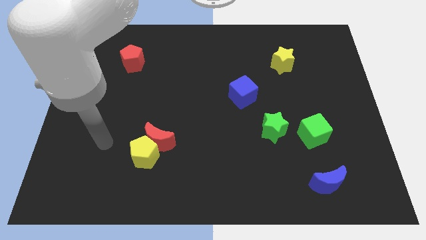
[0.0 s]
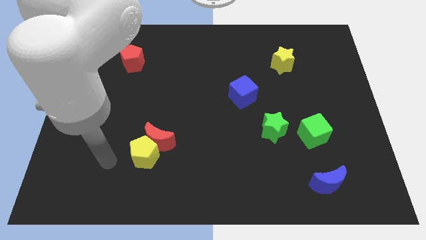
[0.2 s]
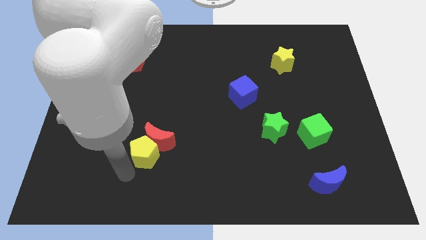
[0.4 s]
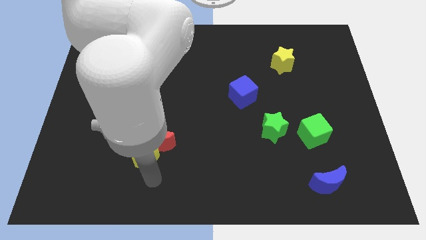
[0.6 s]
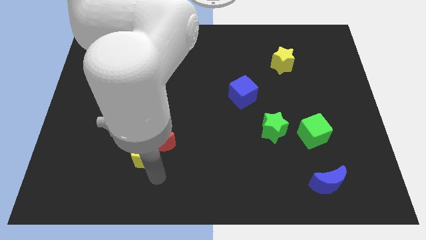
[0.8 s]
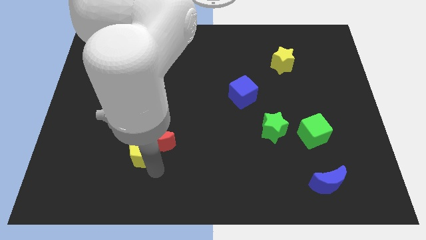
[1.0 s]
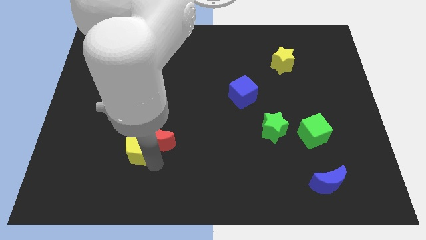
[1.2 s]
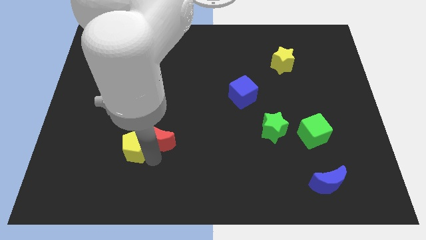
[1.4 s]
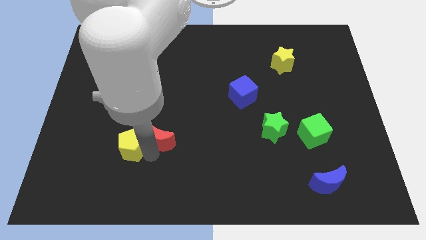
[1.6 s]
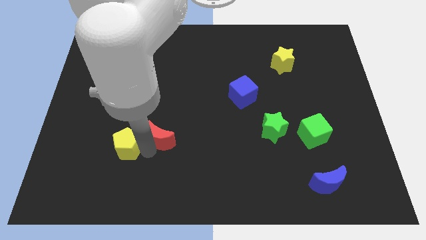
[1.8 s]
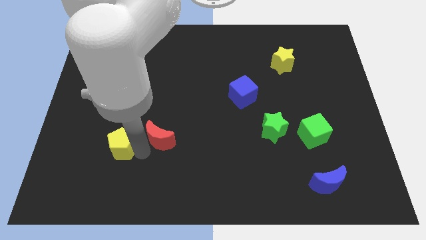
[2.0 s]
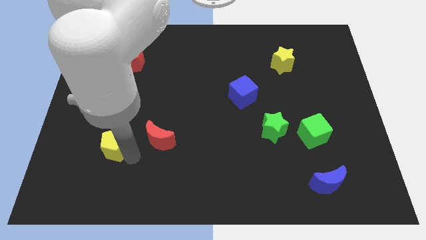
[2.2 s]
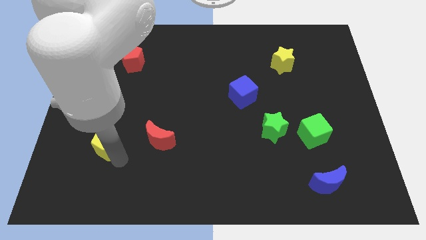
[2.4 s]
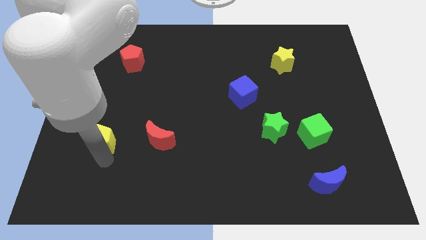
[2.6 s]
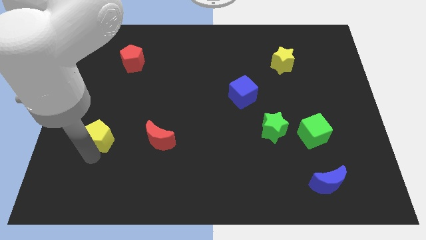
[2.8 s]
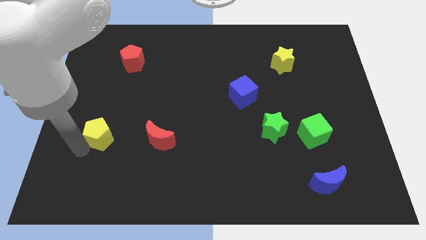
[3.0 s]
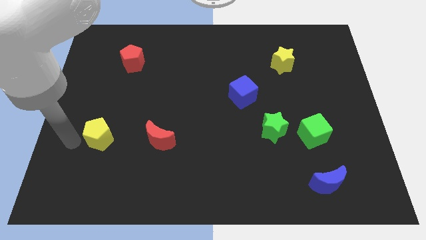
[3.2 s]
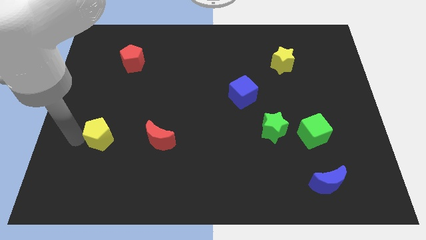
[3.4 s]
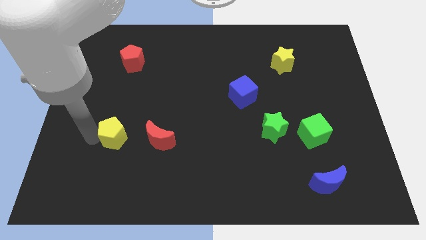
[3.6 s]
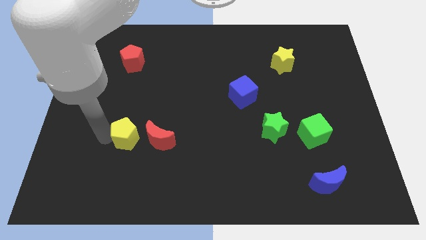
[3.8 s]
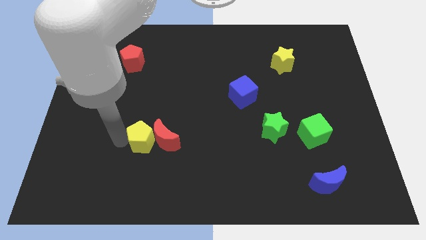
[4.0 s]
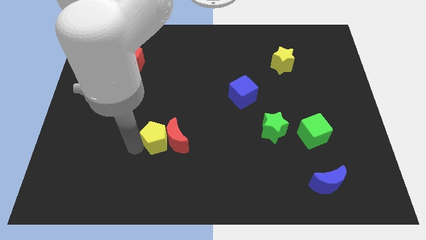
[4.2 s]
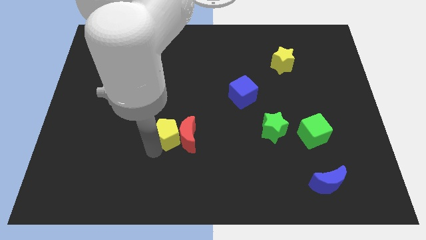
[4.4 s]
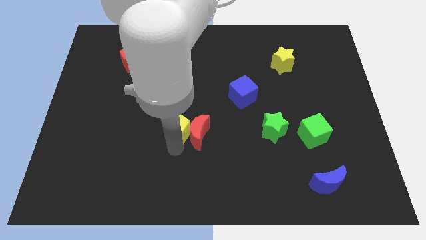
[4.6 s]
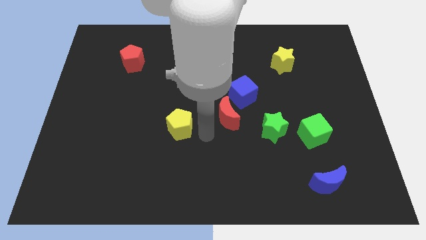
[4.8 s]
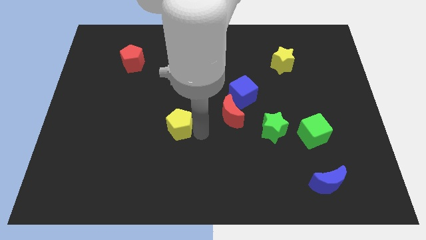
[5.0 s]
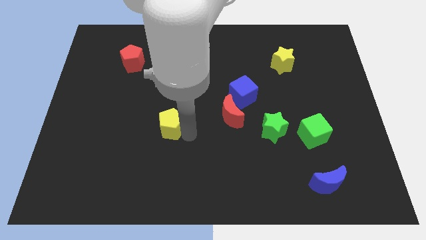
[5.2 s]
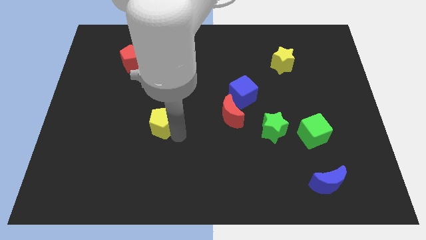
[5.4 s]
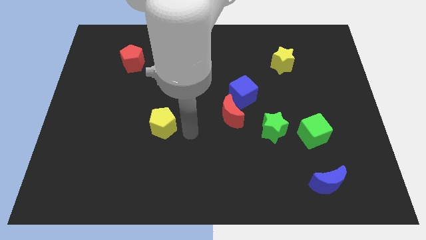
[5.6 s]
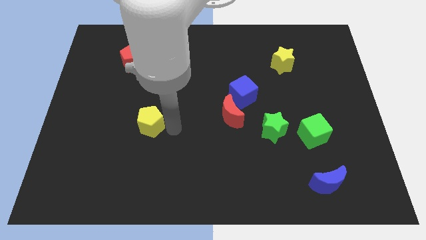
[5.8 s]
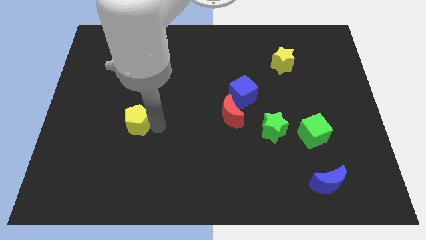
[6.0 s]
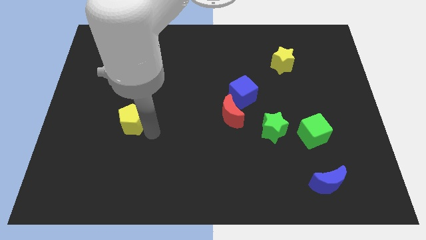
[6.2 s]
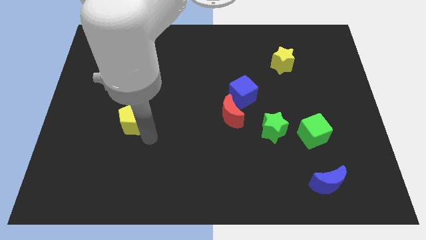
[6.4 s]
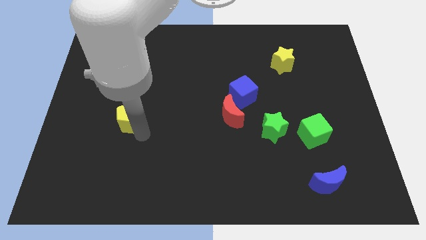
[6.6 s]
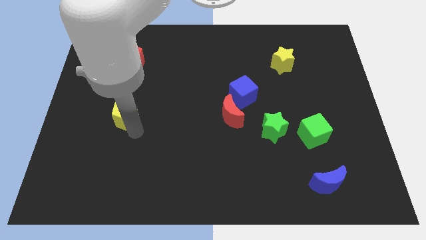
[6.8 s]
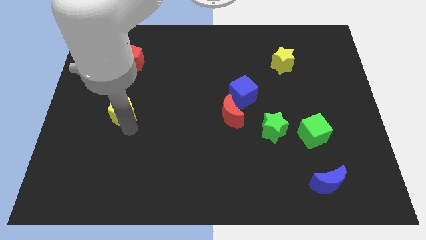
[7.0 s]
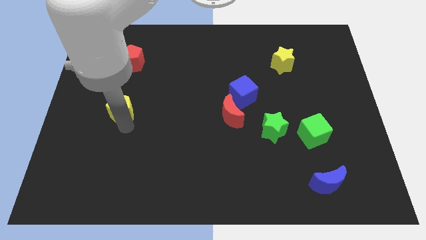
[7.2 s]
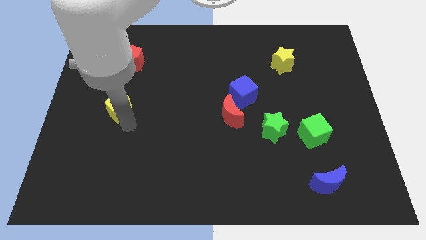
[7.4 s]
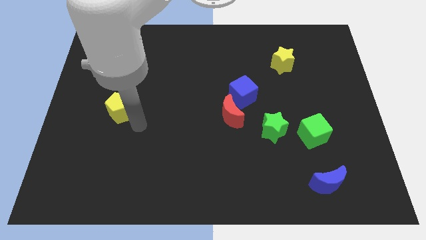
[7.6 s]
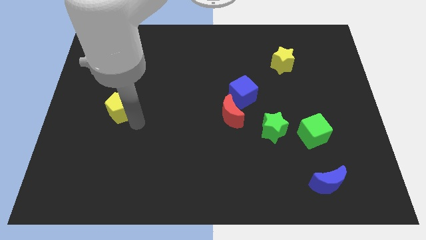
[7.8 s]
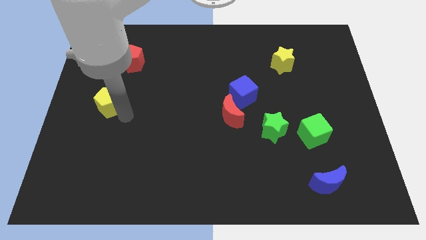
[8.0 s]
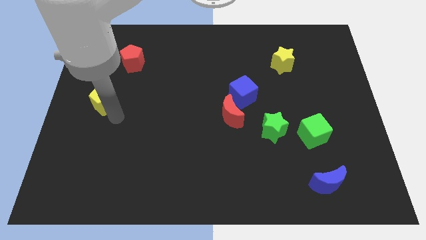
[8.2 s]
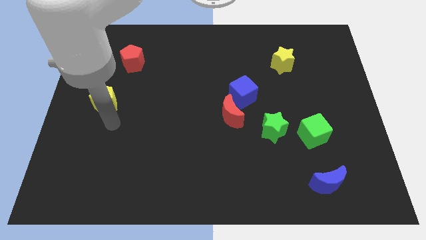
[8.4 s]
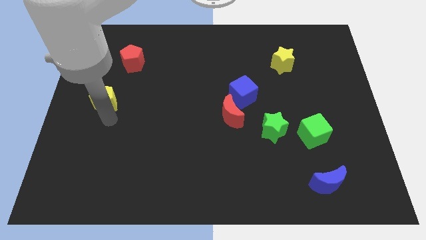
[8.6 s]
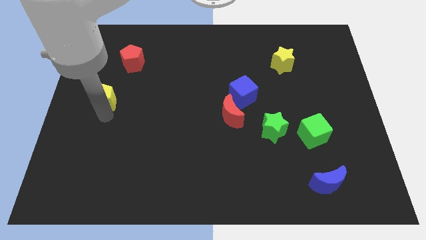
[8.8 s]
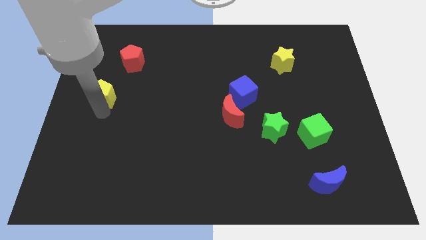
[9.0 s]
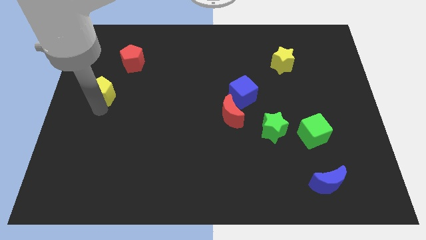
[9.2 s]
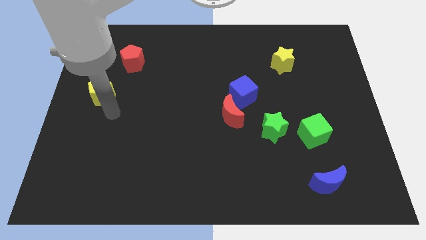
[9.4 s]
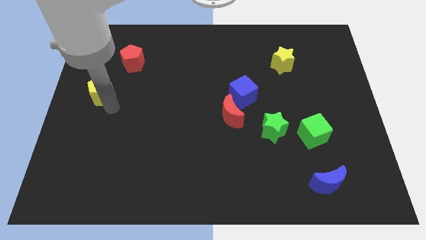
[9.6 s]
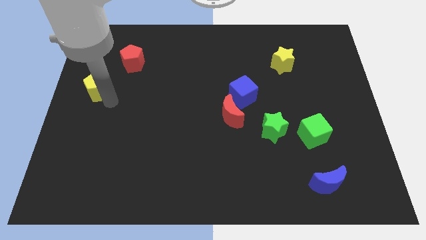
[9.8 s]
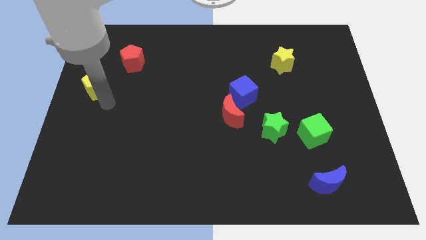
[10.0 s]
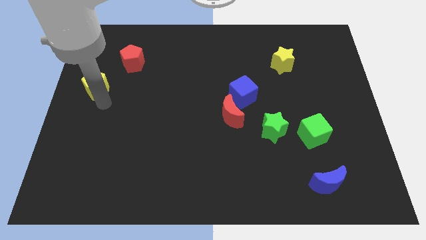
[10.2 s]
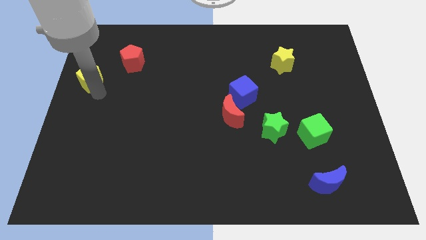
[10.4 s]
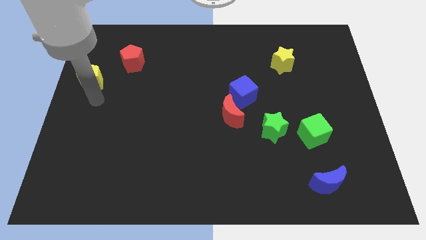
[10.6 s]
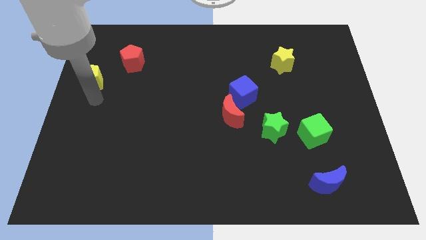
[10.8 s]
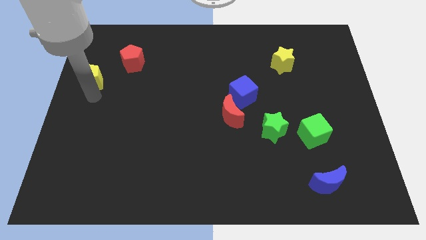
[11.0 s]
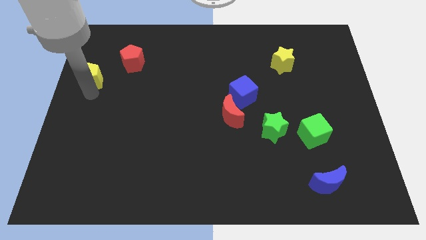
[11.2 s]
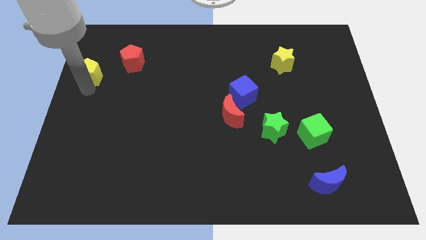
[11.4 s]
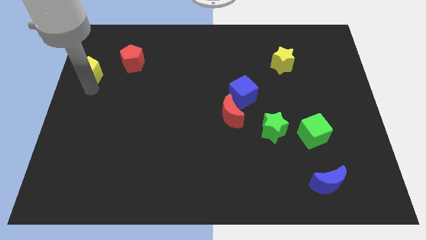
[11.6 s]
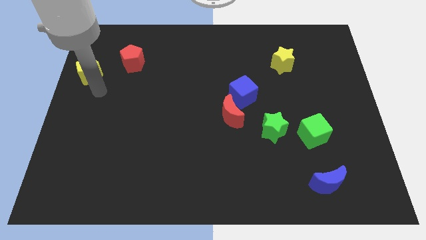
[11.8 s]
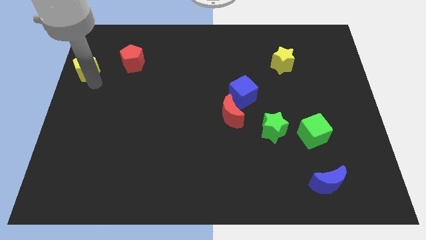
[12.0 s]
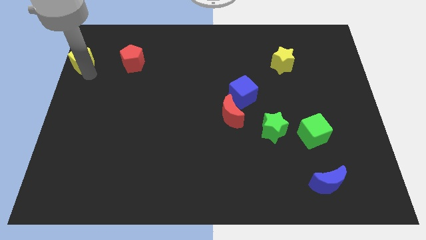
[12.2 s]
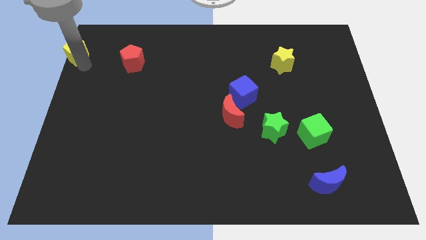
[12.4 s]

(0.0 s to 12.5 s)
move the yellow pentagon to the top left of the board
